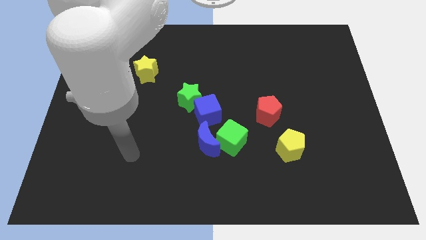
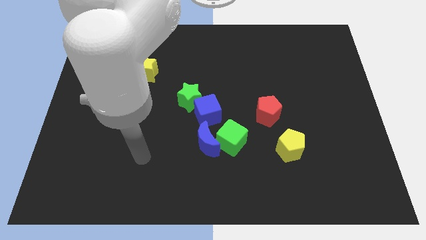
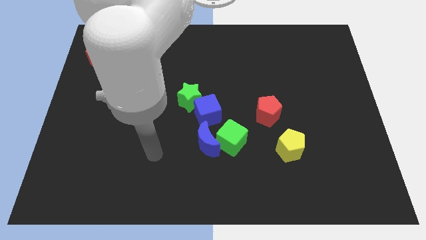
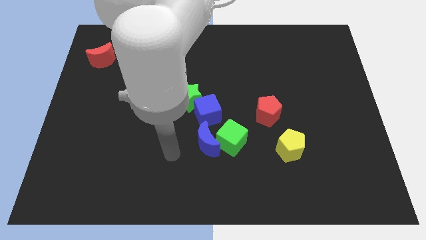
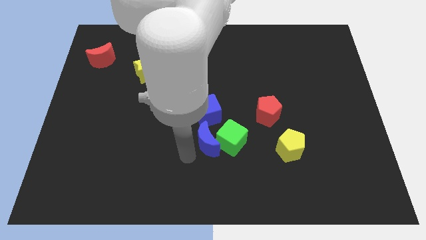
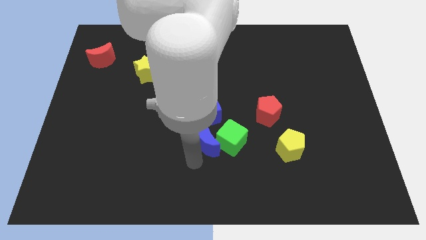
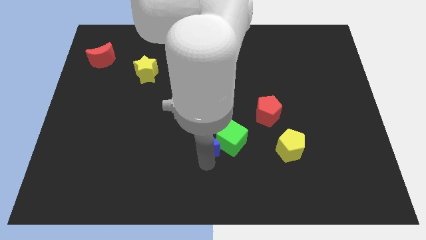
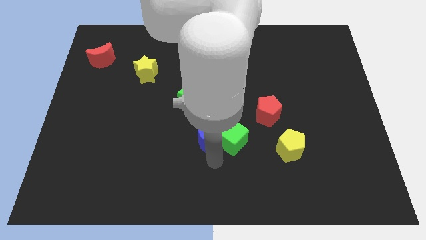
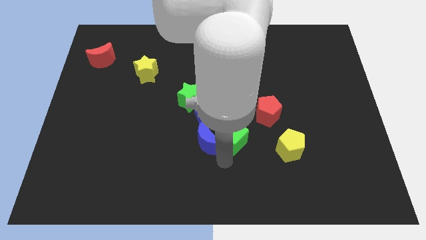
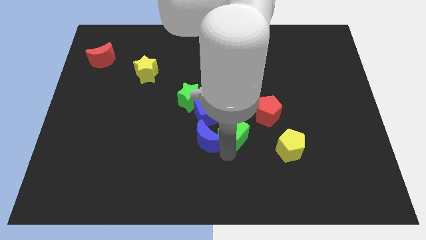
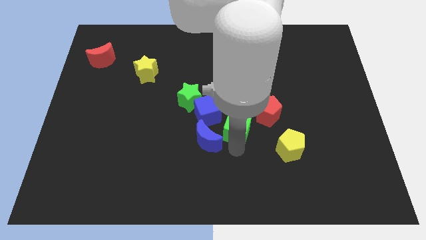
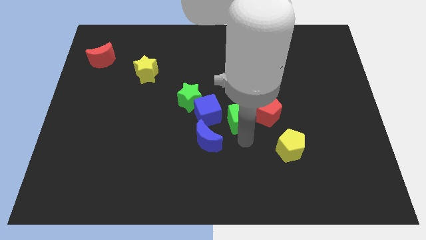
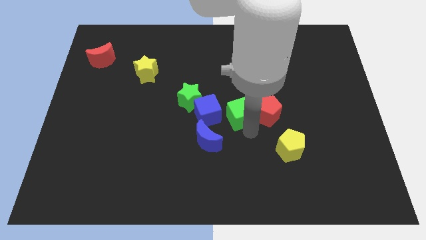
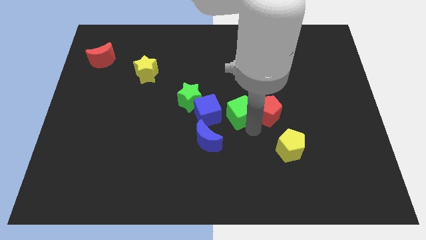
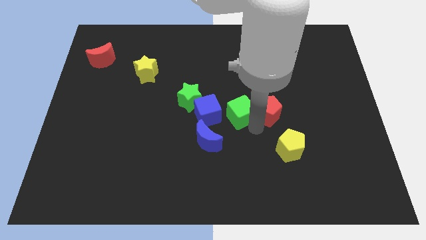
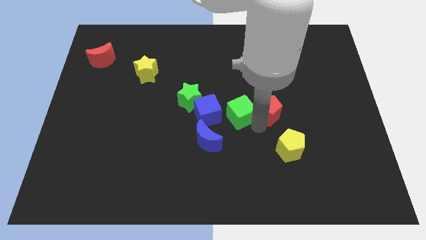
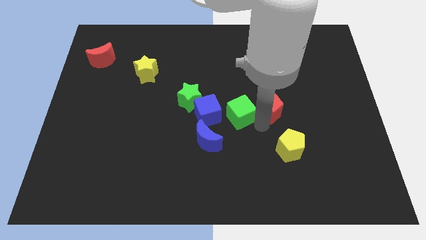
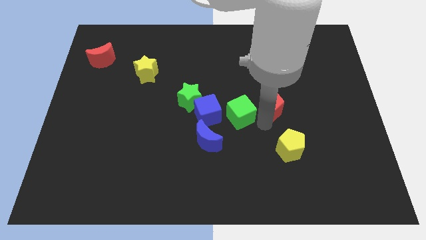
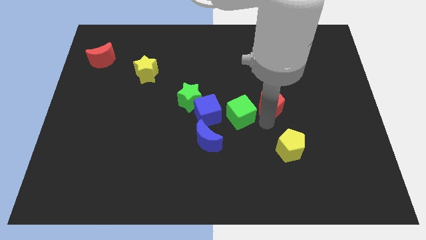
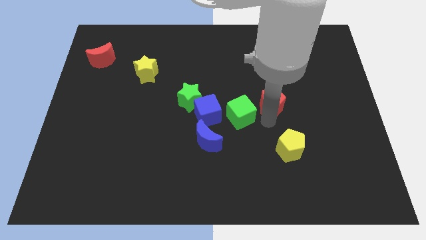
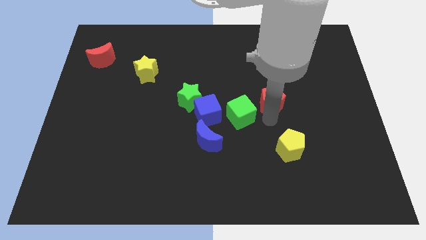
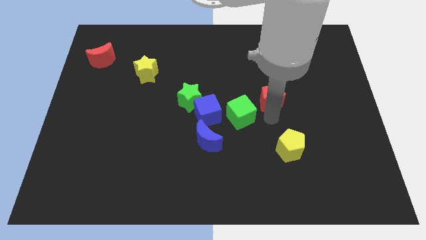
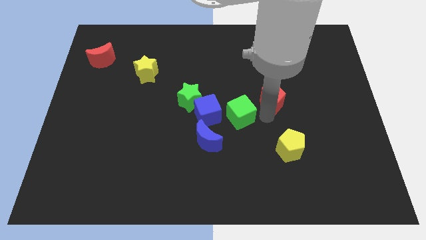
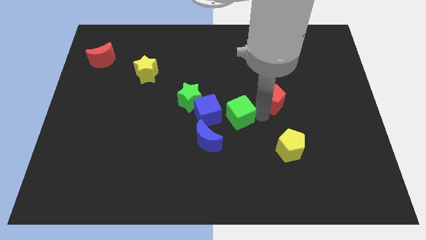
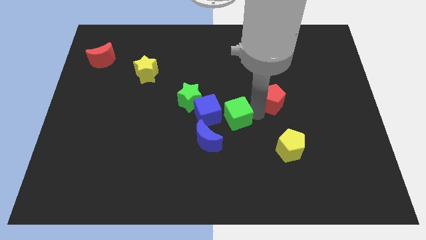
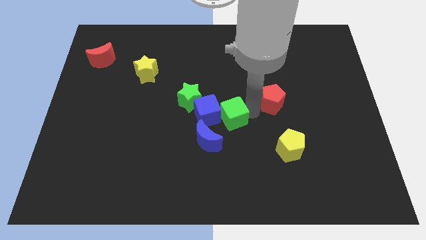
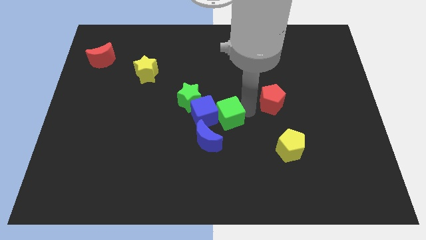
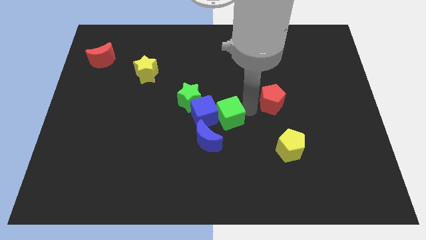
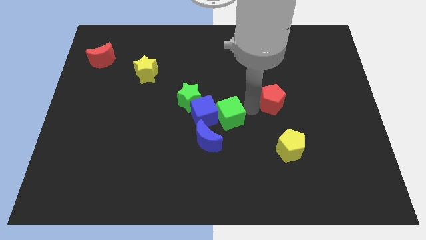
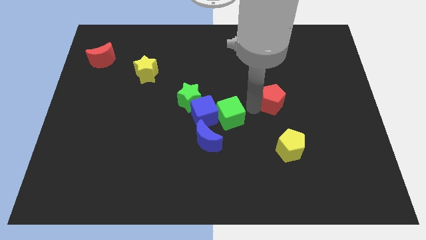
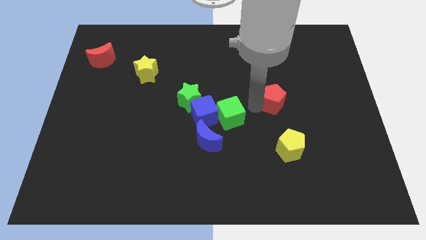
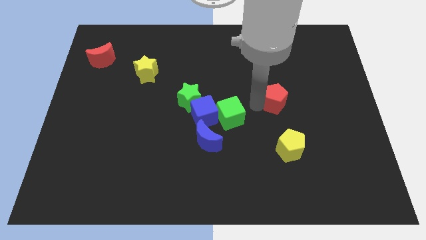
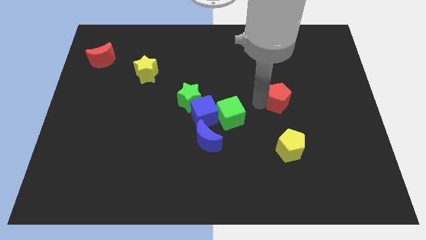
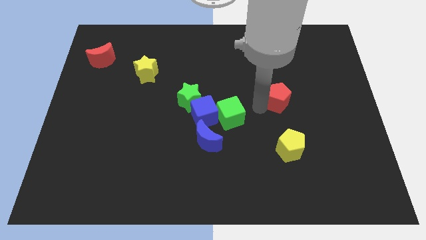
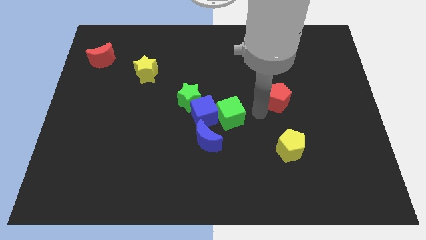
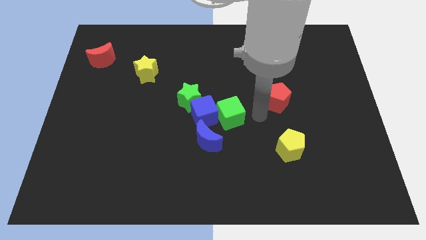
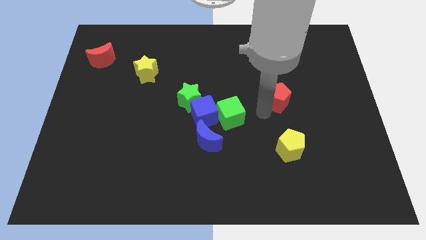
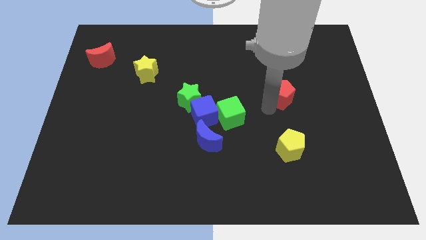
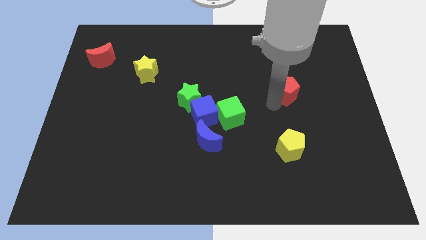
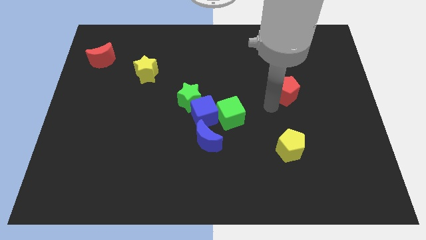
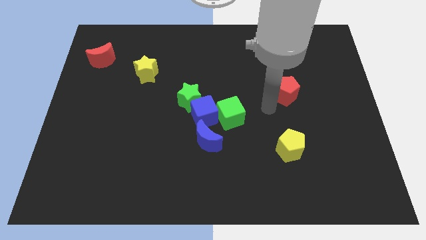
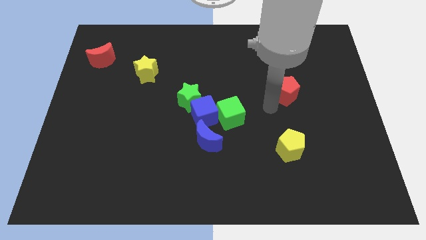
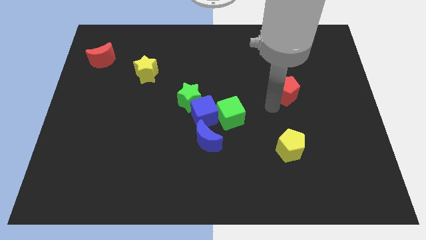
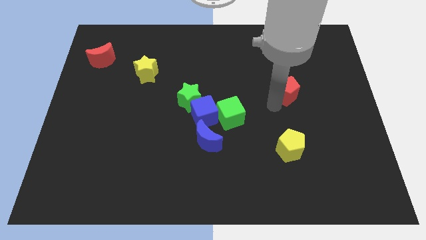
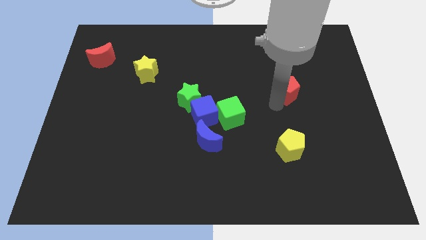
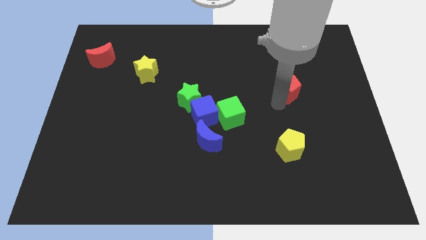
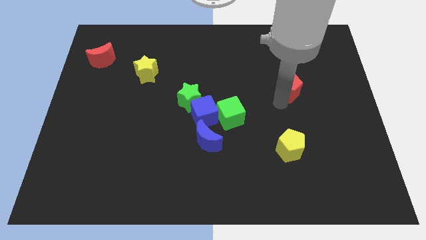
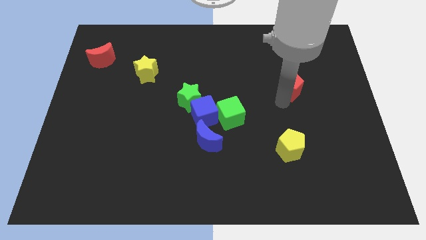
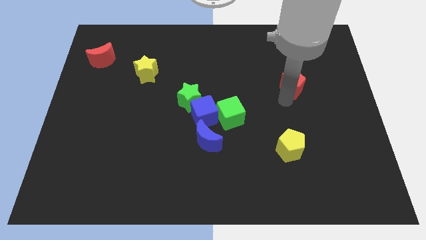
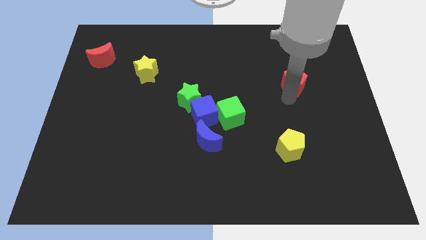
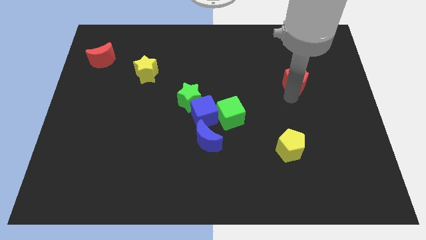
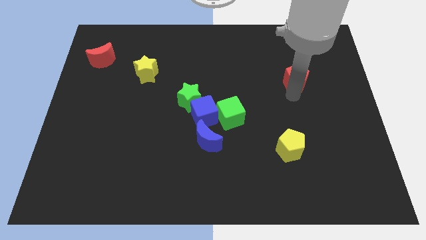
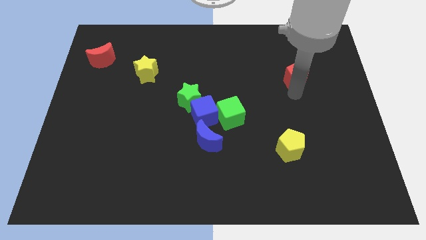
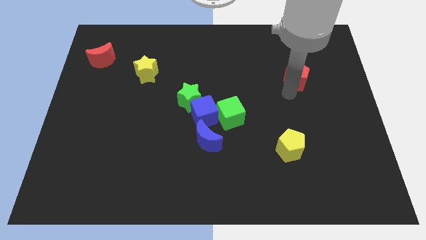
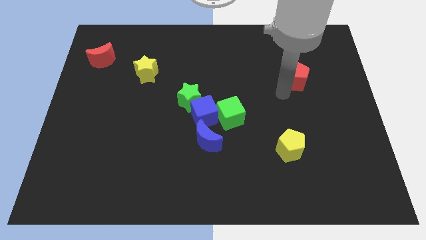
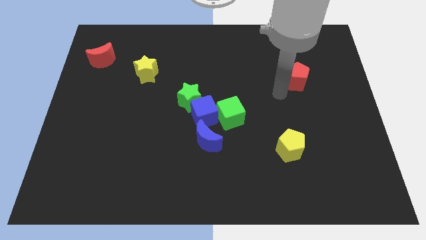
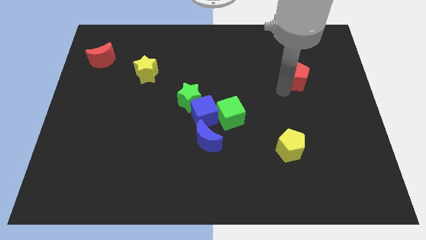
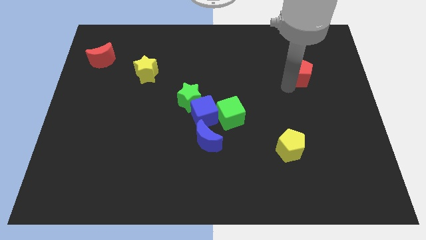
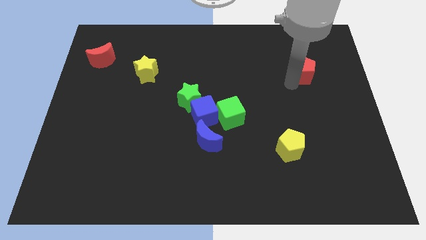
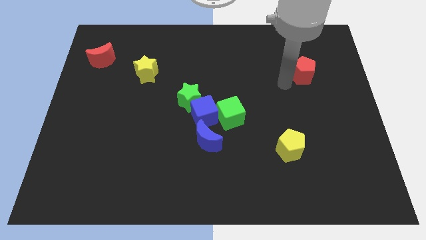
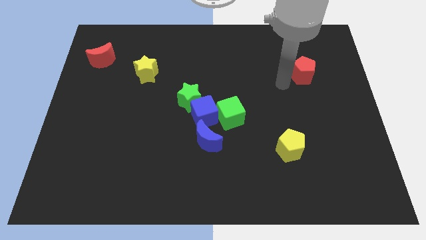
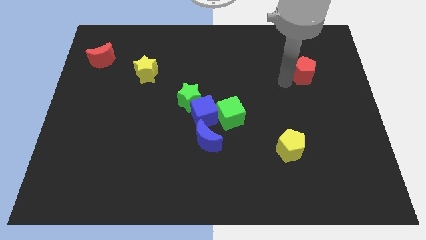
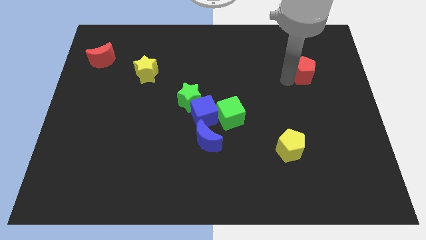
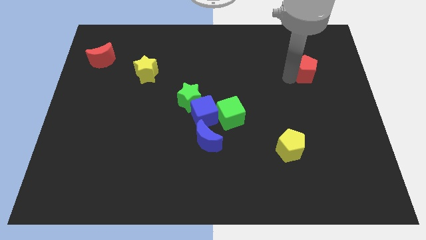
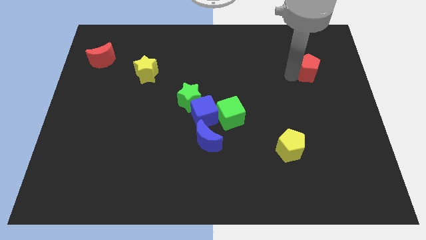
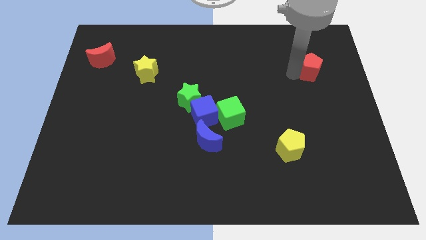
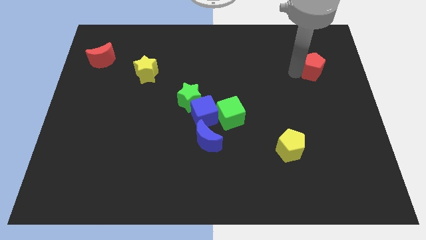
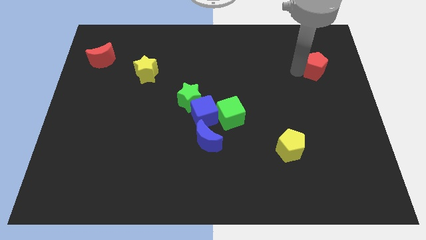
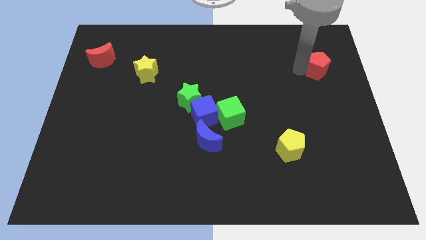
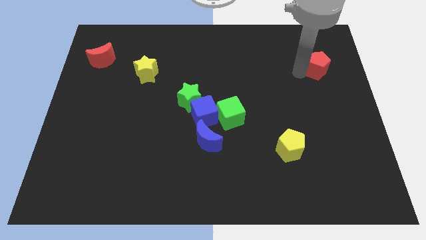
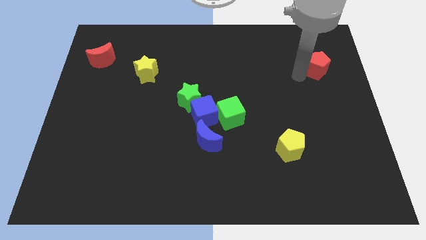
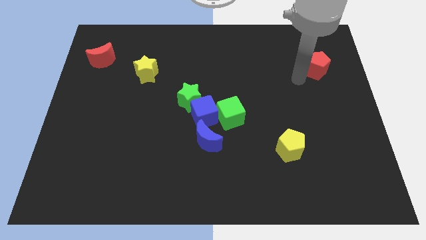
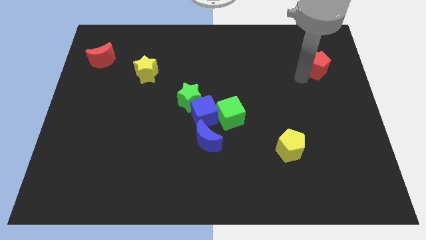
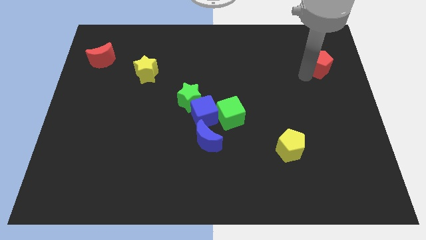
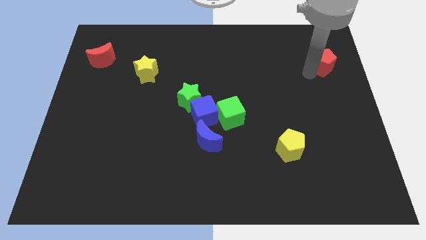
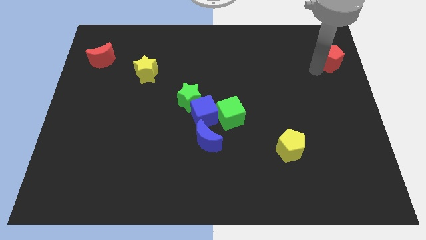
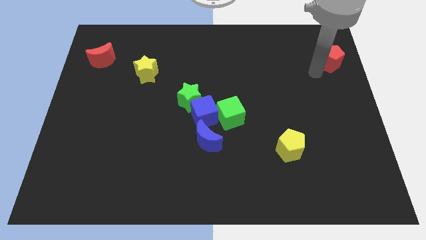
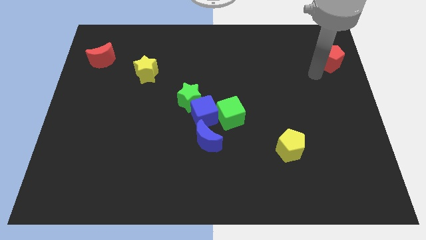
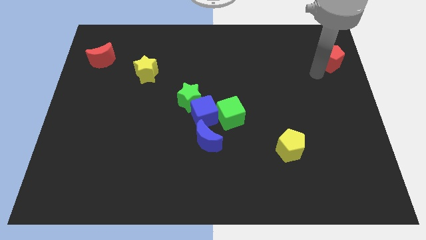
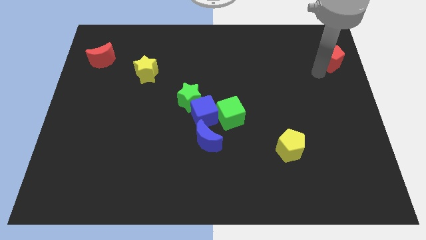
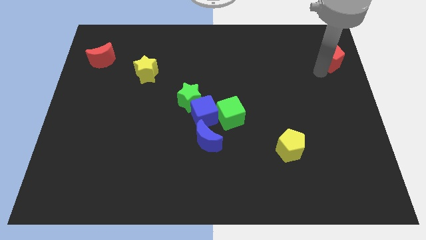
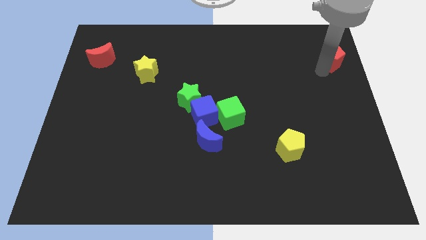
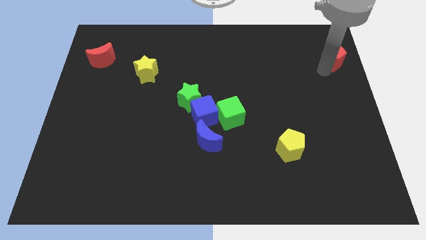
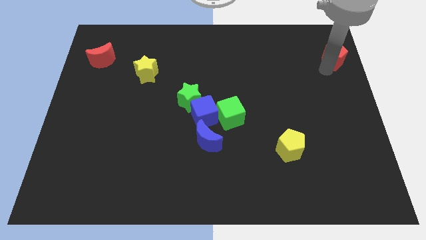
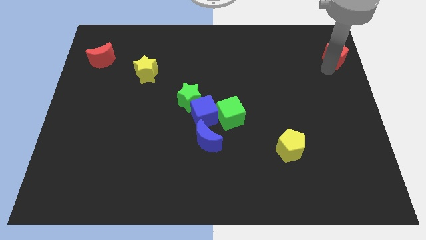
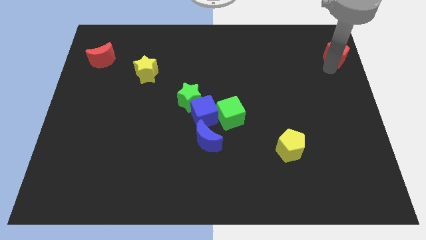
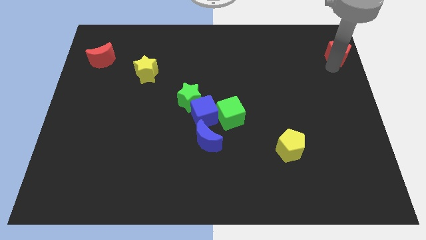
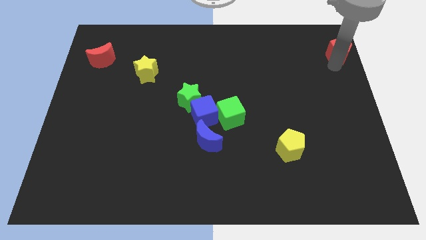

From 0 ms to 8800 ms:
slide the red pentagon to the top right of the board
